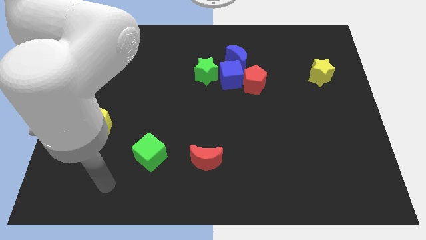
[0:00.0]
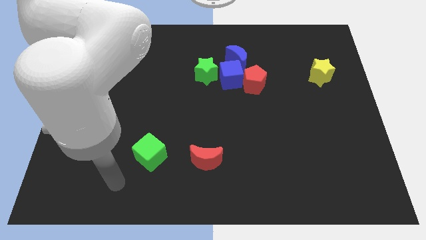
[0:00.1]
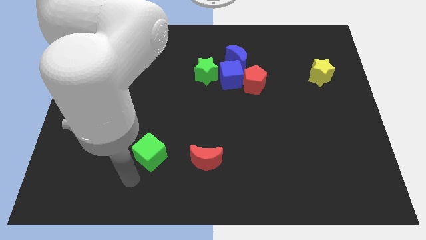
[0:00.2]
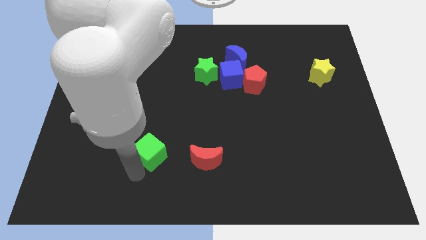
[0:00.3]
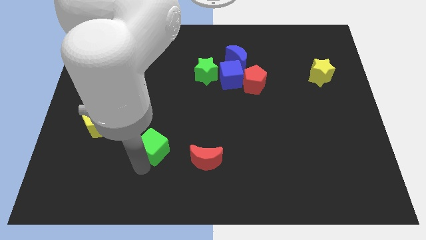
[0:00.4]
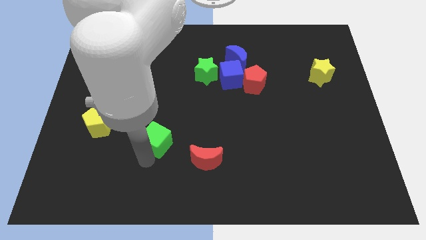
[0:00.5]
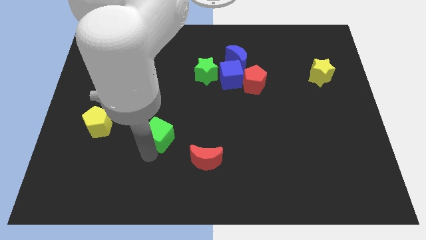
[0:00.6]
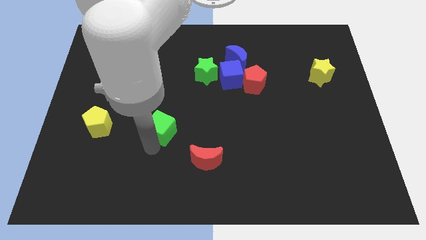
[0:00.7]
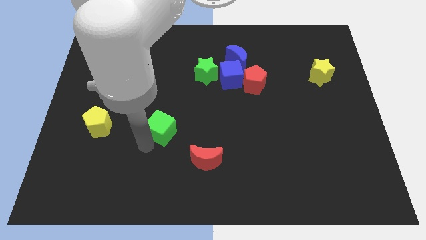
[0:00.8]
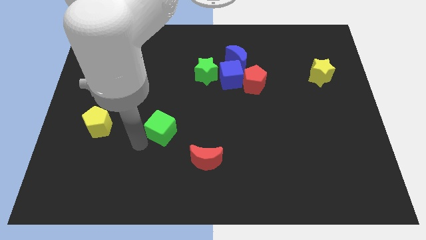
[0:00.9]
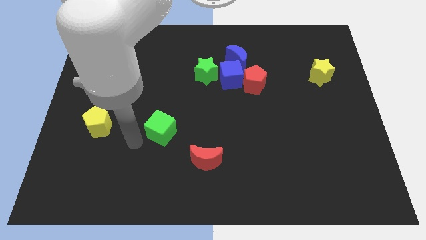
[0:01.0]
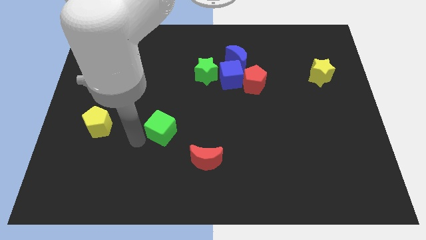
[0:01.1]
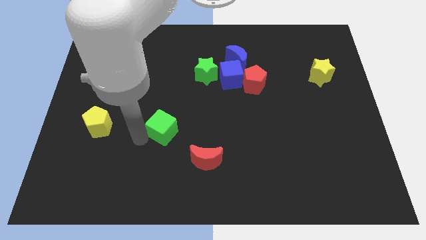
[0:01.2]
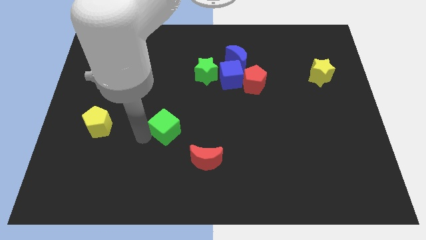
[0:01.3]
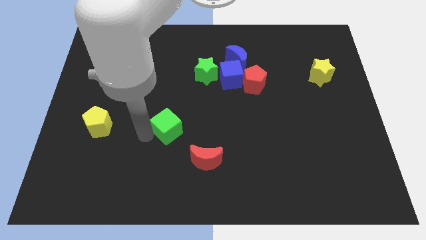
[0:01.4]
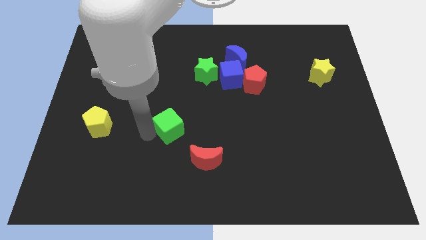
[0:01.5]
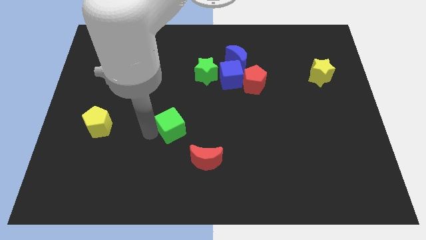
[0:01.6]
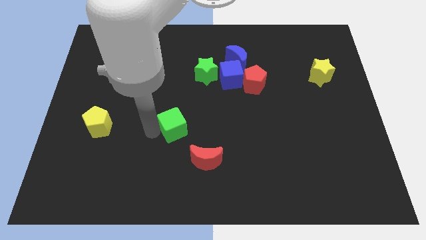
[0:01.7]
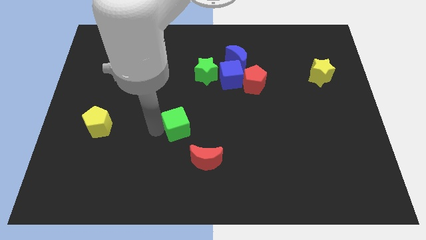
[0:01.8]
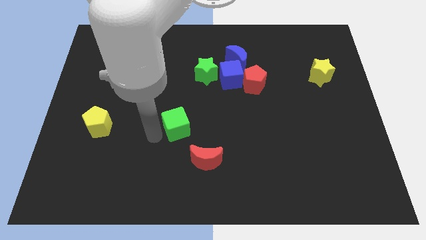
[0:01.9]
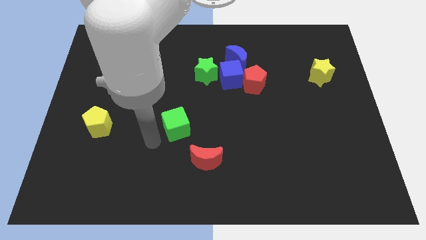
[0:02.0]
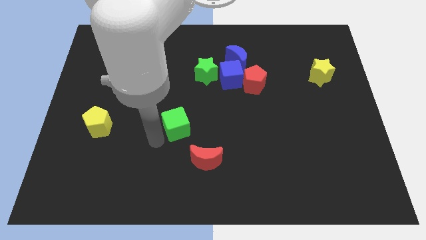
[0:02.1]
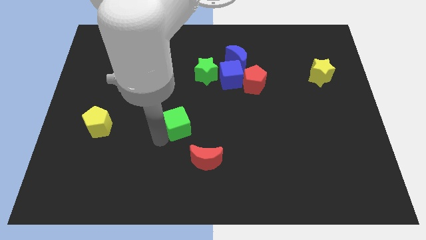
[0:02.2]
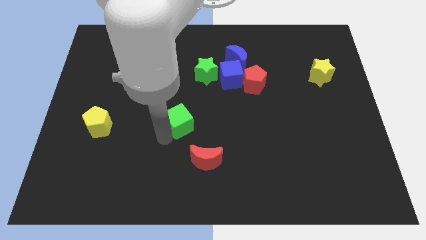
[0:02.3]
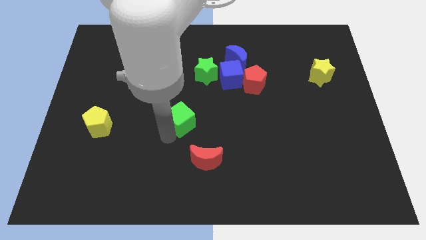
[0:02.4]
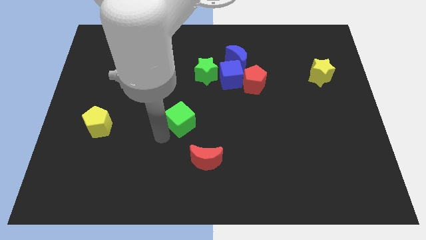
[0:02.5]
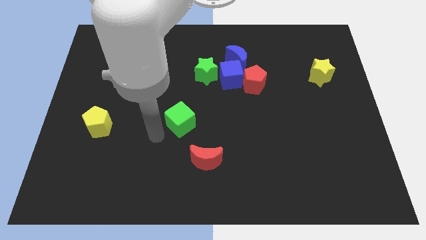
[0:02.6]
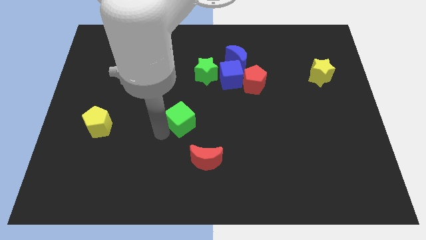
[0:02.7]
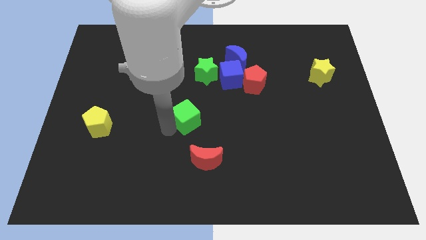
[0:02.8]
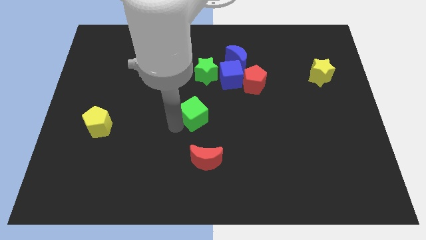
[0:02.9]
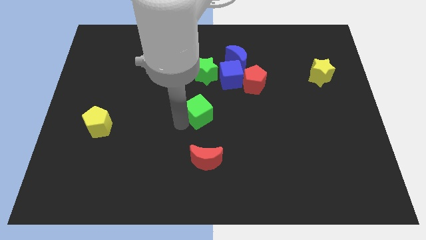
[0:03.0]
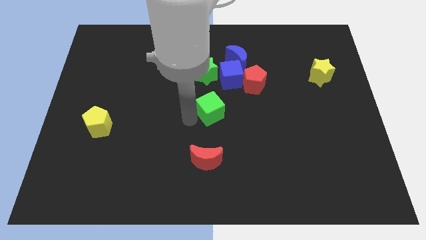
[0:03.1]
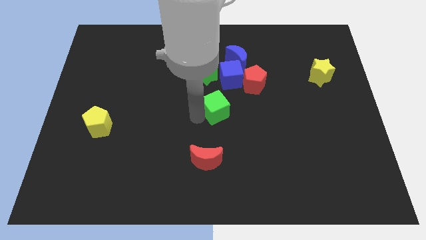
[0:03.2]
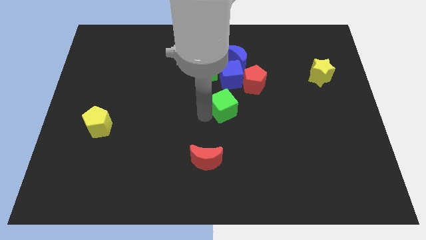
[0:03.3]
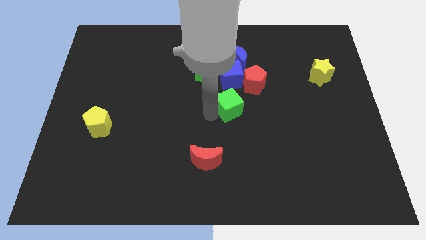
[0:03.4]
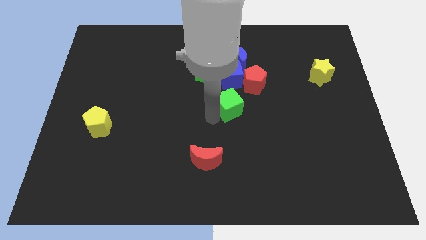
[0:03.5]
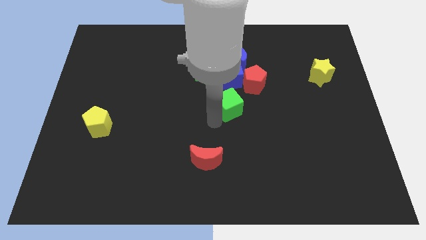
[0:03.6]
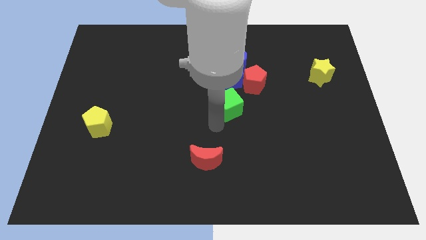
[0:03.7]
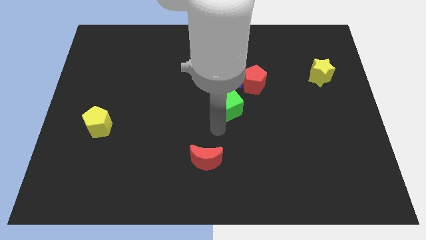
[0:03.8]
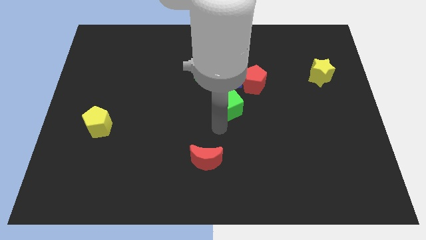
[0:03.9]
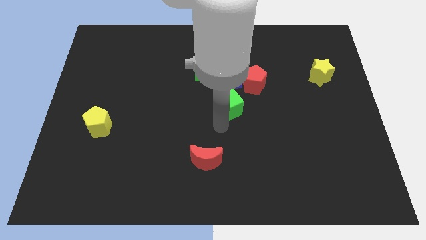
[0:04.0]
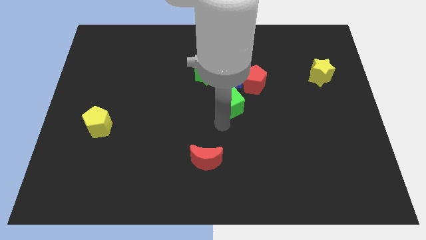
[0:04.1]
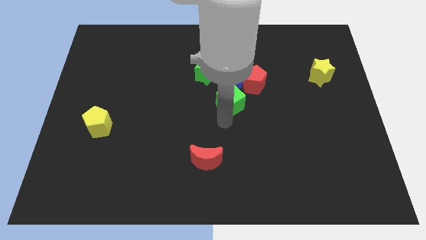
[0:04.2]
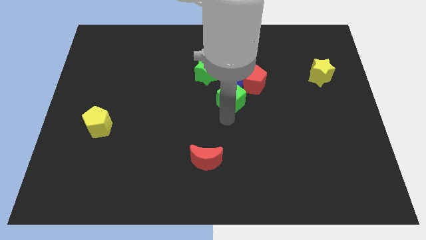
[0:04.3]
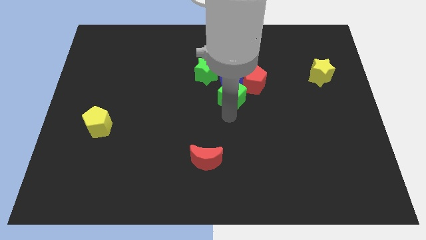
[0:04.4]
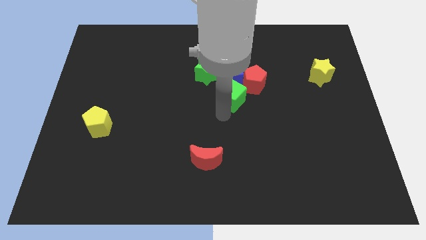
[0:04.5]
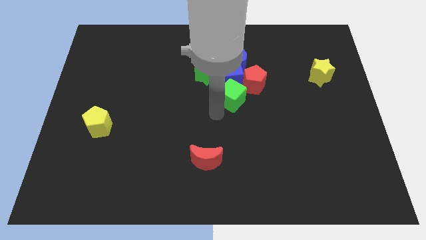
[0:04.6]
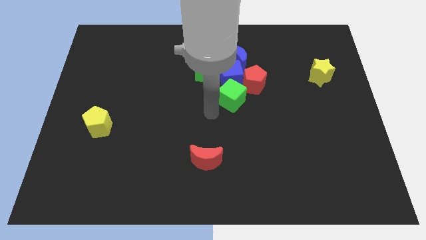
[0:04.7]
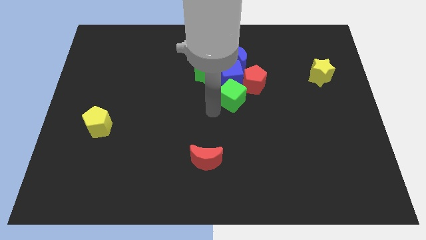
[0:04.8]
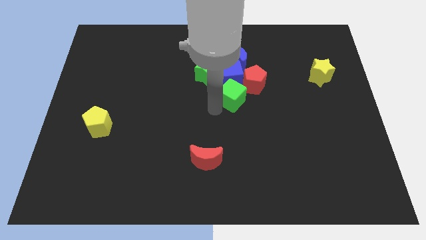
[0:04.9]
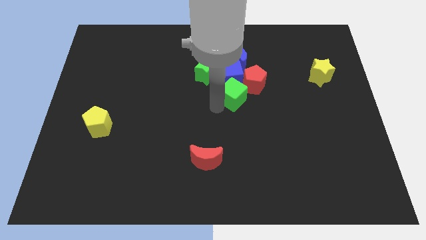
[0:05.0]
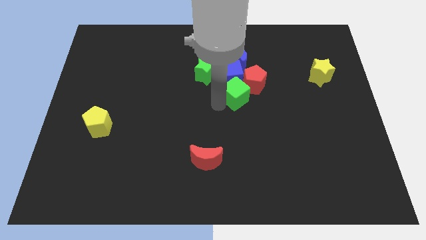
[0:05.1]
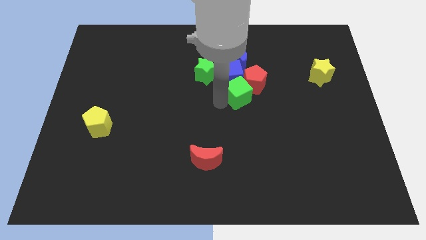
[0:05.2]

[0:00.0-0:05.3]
push the green cube towards the red pentagon

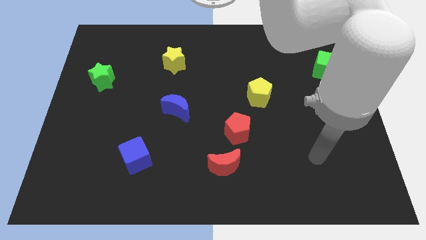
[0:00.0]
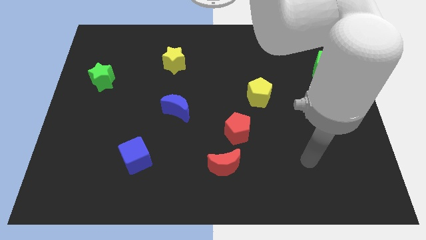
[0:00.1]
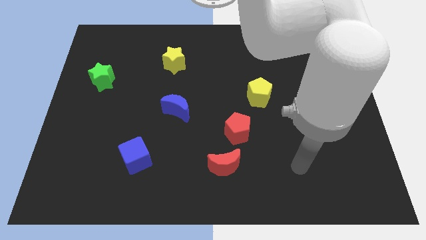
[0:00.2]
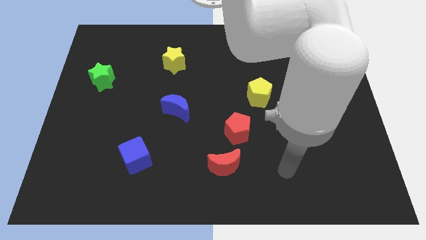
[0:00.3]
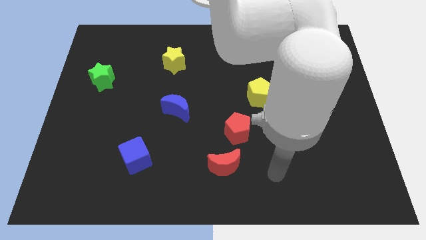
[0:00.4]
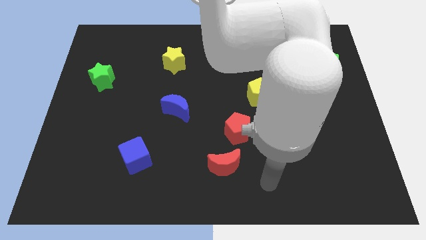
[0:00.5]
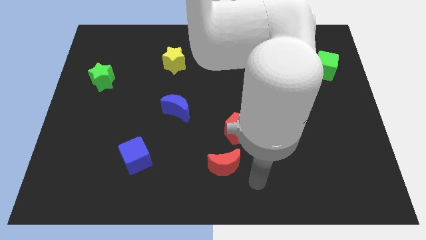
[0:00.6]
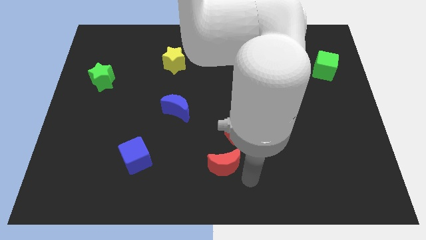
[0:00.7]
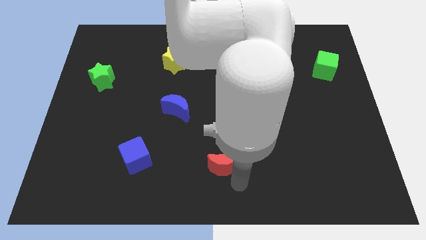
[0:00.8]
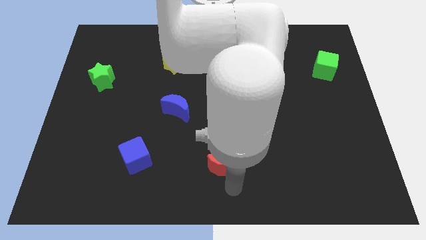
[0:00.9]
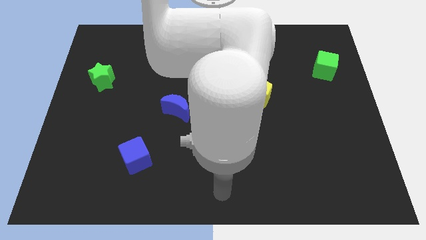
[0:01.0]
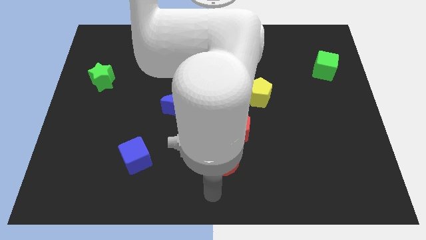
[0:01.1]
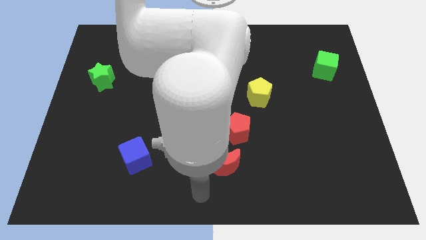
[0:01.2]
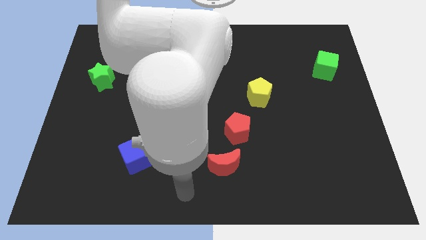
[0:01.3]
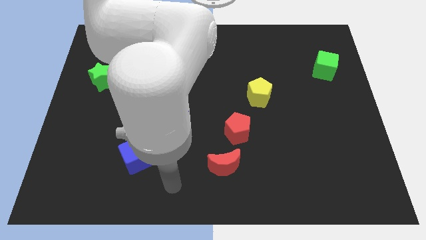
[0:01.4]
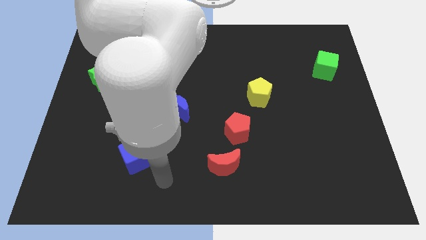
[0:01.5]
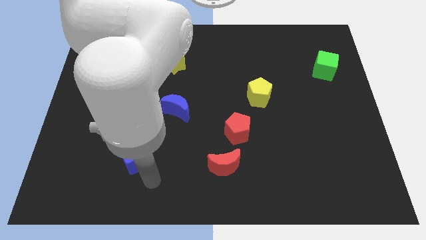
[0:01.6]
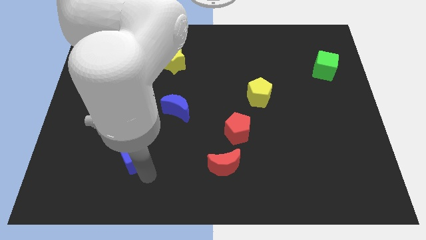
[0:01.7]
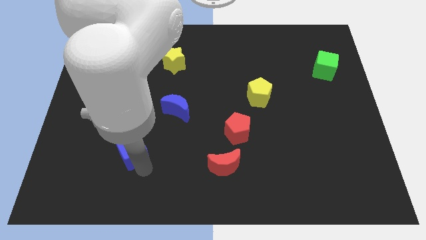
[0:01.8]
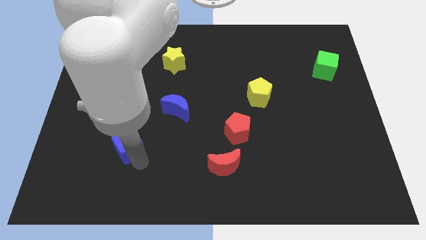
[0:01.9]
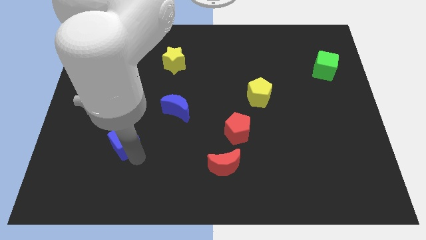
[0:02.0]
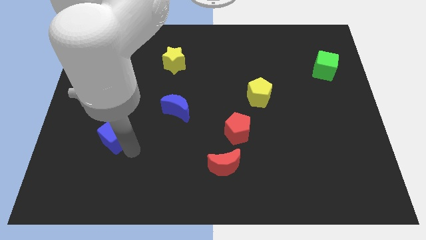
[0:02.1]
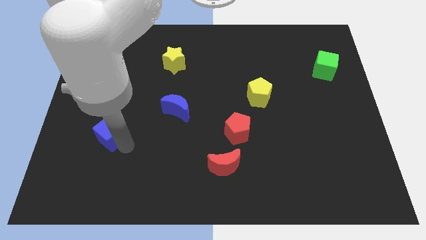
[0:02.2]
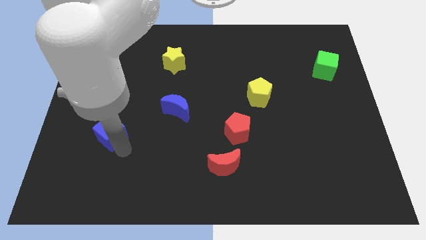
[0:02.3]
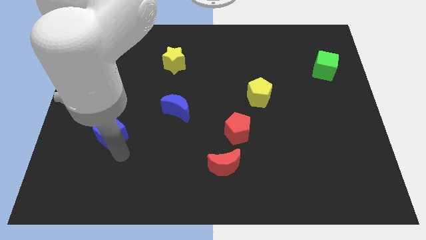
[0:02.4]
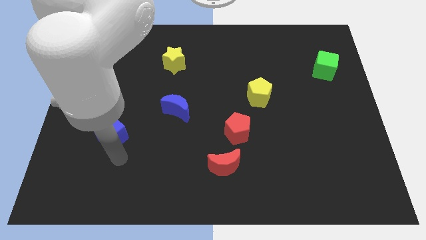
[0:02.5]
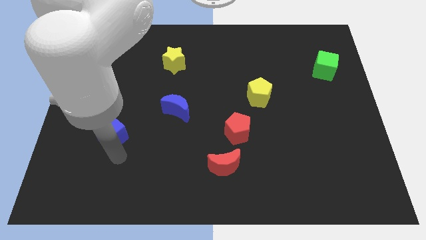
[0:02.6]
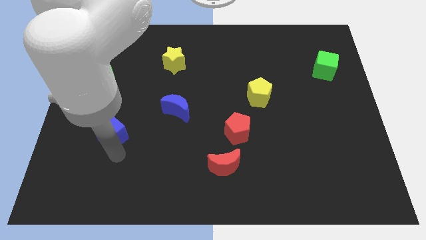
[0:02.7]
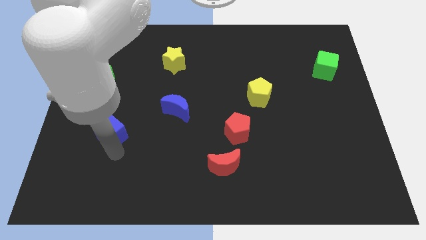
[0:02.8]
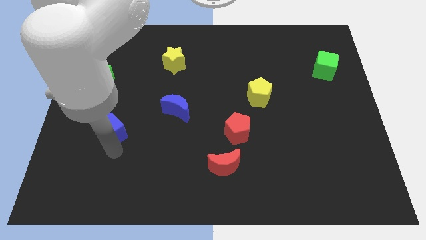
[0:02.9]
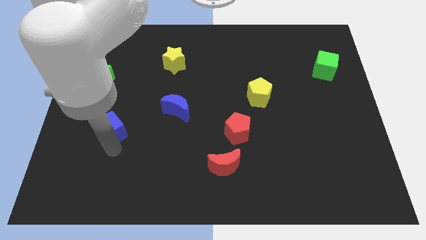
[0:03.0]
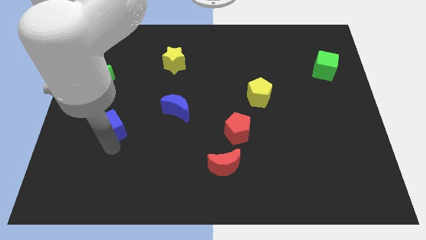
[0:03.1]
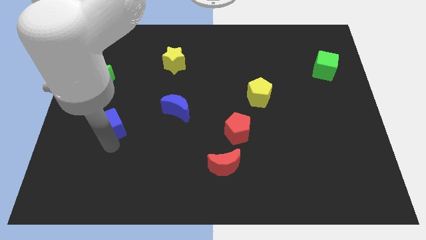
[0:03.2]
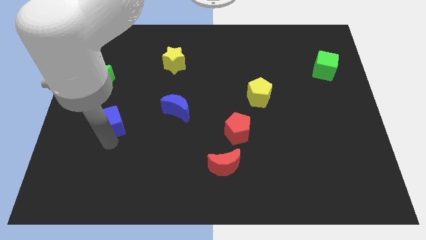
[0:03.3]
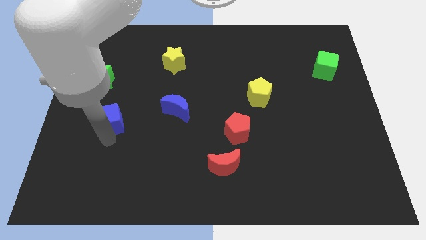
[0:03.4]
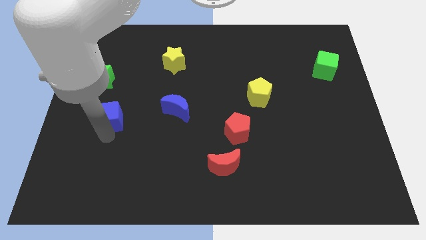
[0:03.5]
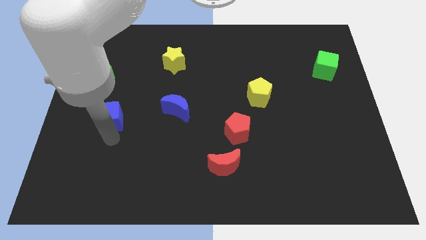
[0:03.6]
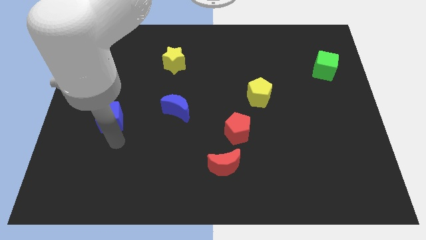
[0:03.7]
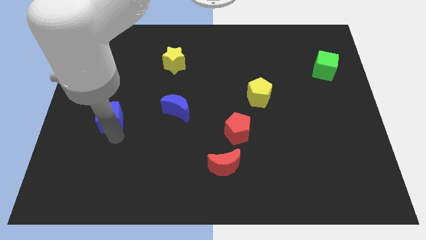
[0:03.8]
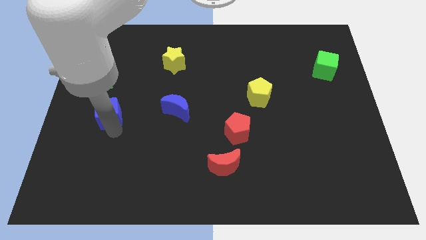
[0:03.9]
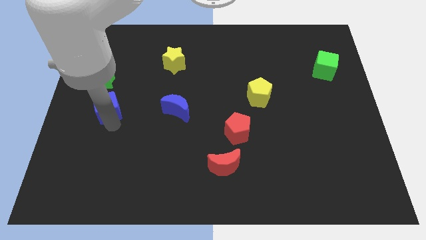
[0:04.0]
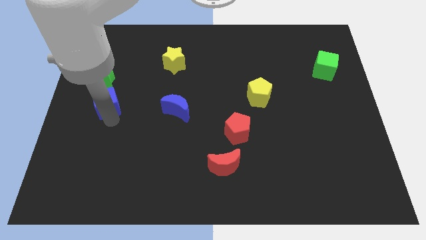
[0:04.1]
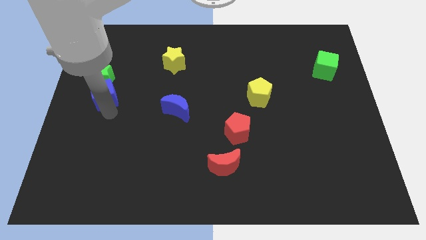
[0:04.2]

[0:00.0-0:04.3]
push the blue cube next to the green star
